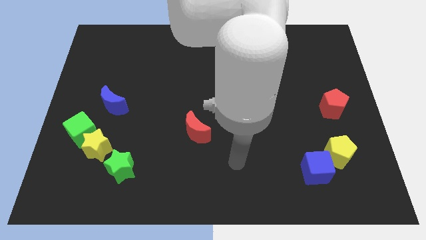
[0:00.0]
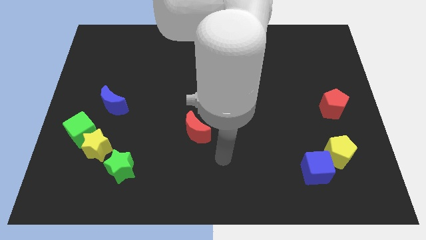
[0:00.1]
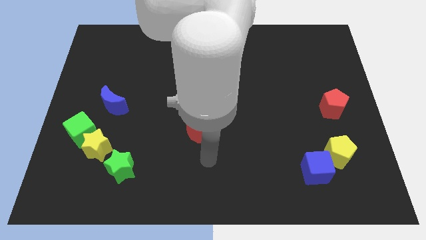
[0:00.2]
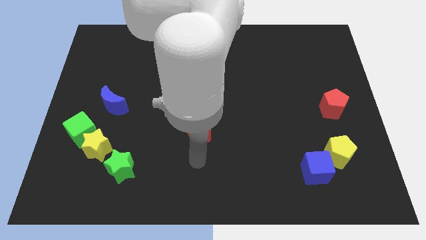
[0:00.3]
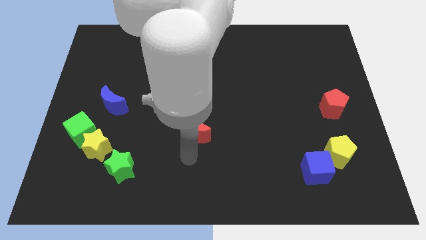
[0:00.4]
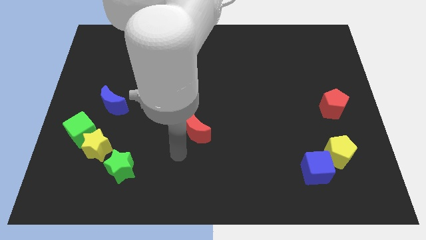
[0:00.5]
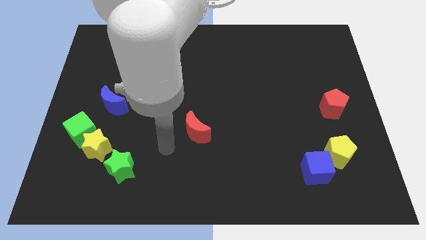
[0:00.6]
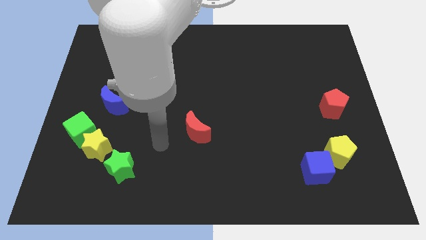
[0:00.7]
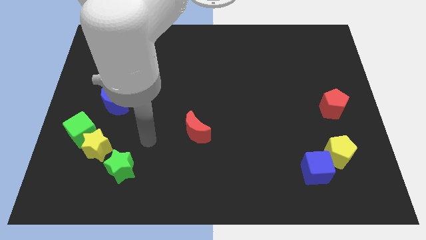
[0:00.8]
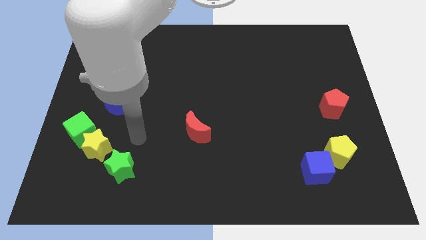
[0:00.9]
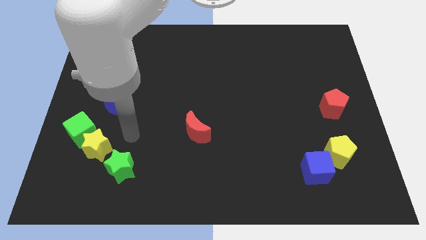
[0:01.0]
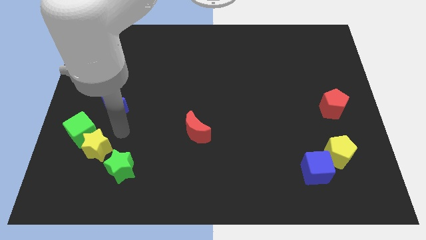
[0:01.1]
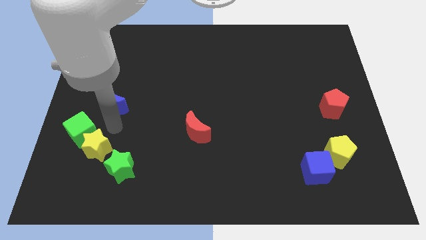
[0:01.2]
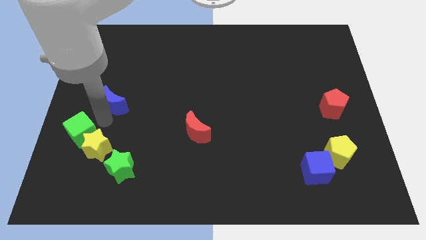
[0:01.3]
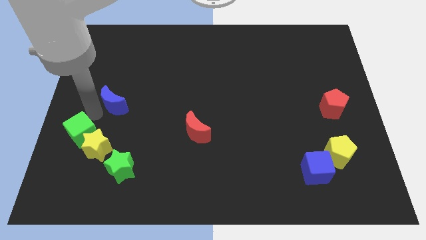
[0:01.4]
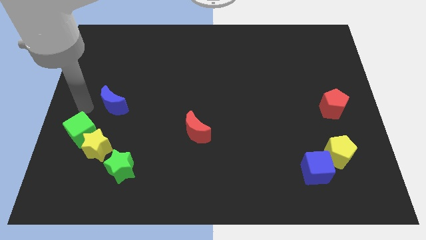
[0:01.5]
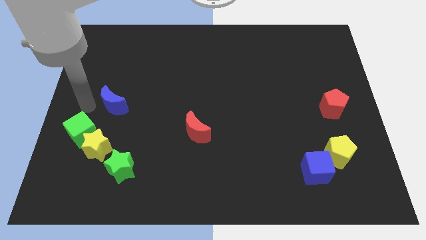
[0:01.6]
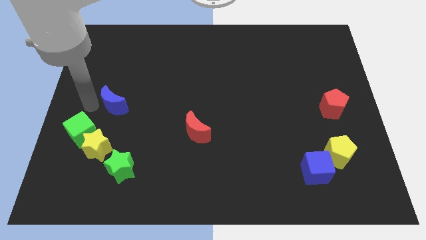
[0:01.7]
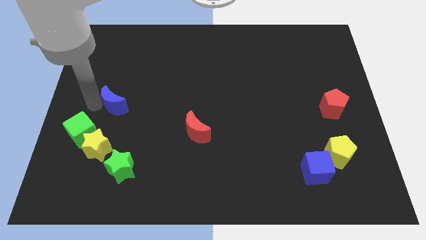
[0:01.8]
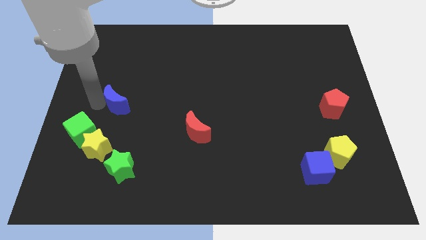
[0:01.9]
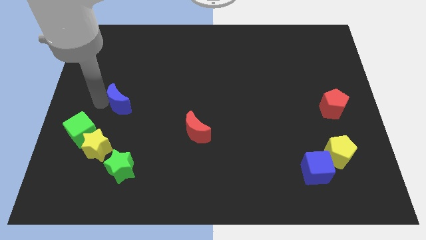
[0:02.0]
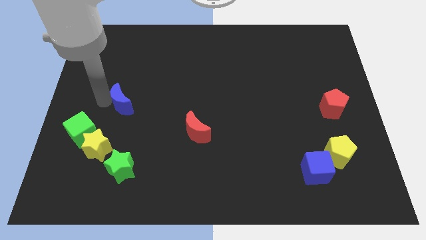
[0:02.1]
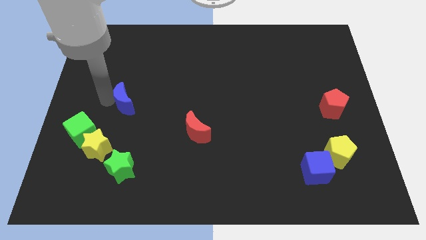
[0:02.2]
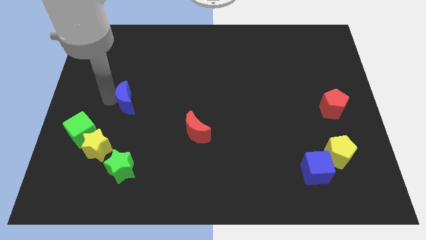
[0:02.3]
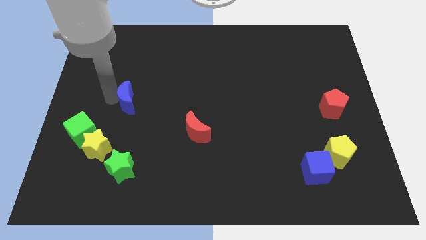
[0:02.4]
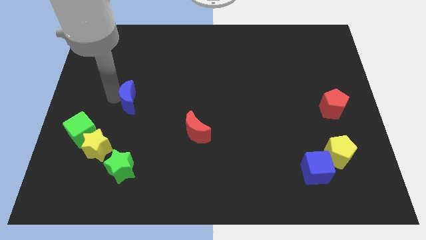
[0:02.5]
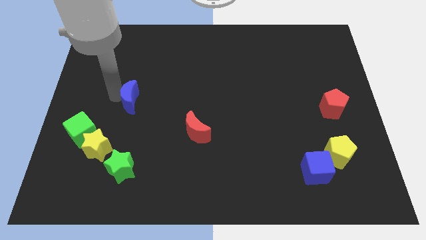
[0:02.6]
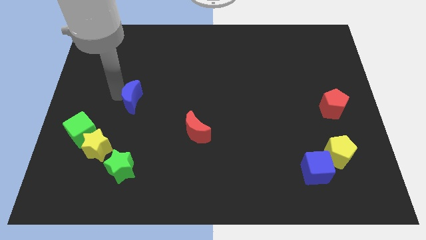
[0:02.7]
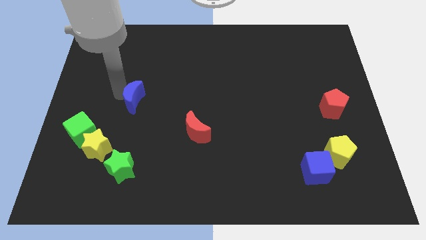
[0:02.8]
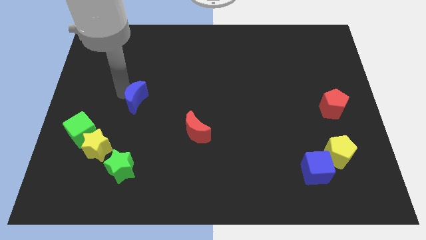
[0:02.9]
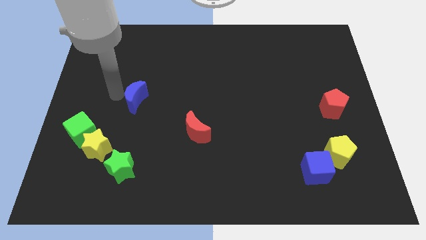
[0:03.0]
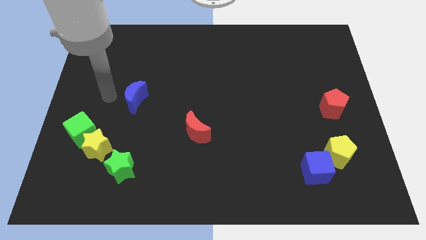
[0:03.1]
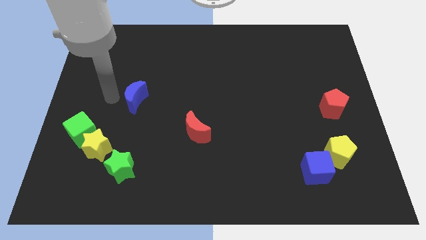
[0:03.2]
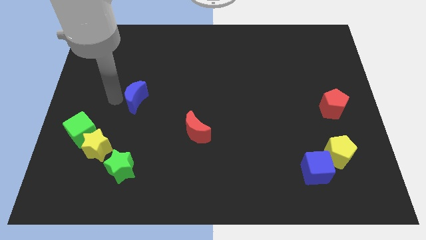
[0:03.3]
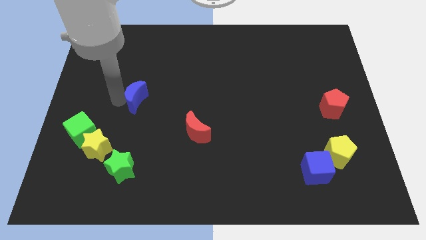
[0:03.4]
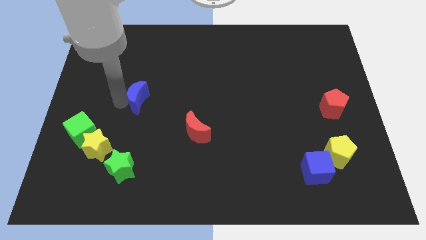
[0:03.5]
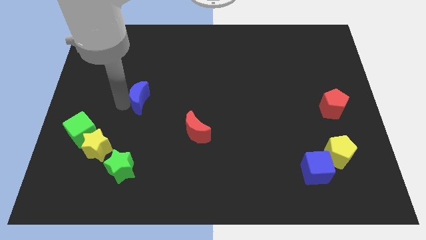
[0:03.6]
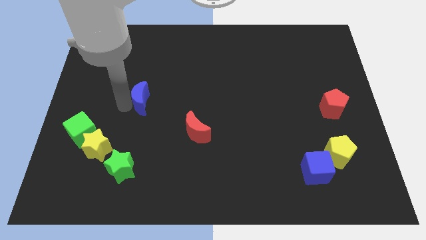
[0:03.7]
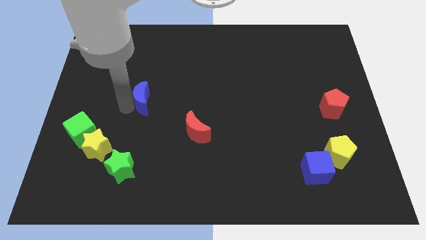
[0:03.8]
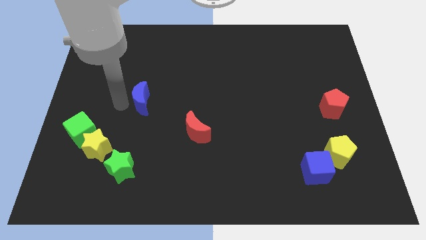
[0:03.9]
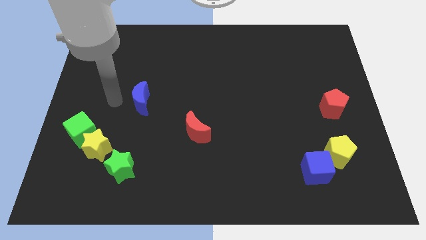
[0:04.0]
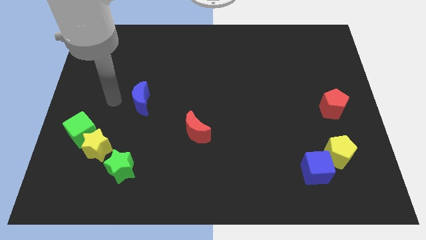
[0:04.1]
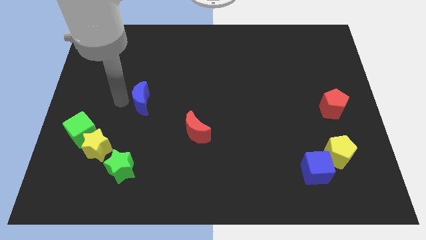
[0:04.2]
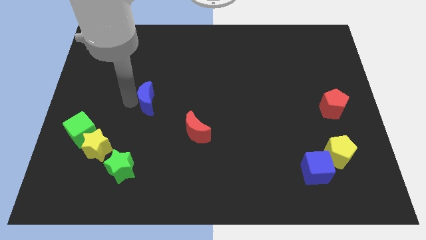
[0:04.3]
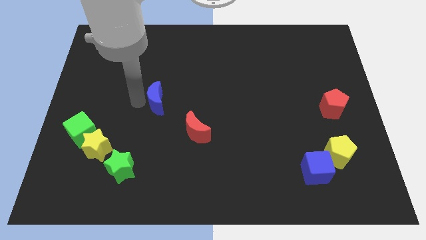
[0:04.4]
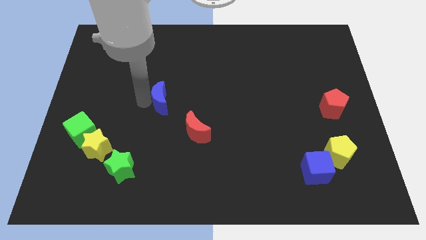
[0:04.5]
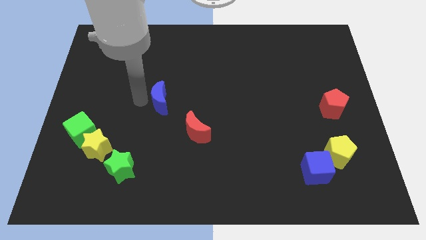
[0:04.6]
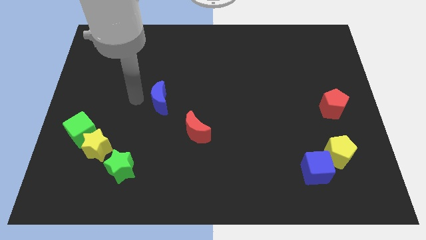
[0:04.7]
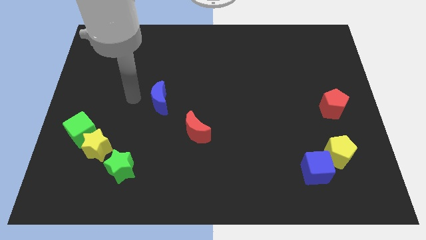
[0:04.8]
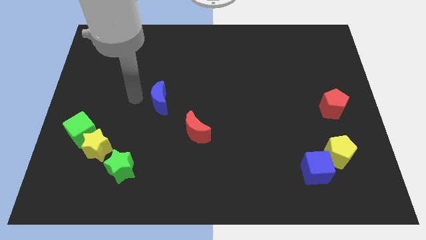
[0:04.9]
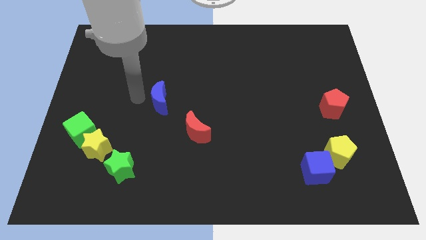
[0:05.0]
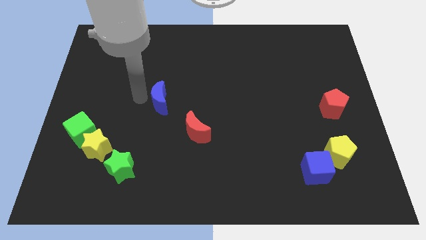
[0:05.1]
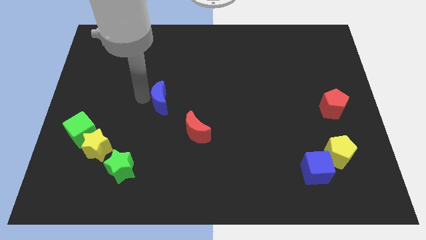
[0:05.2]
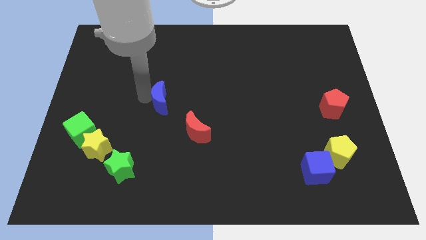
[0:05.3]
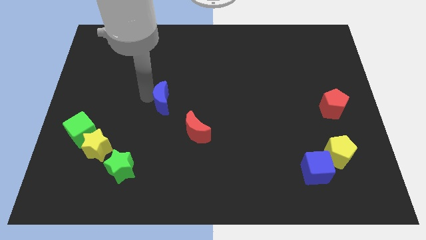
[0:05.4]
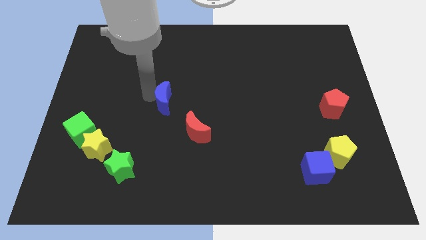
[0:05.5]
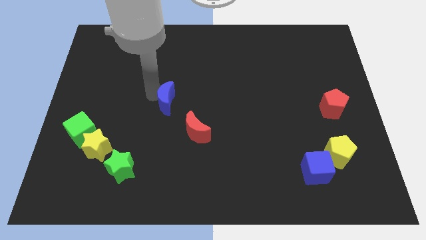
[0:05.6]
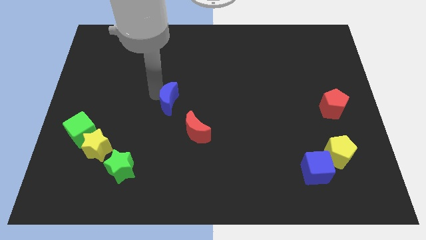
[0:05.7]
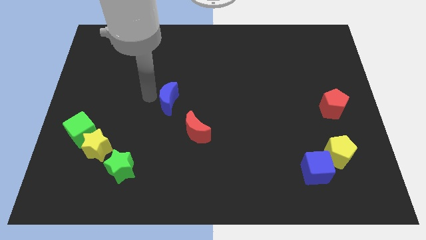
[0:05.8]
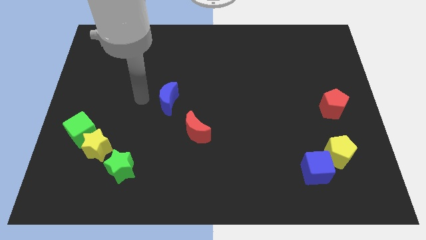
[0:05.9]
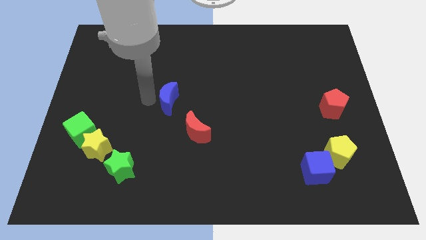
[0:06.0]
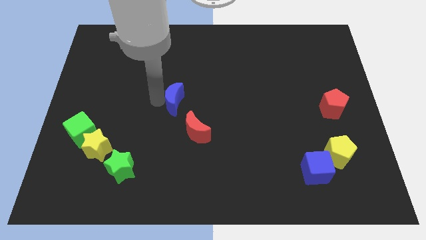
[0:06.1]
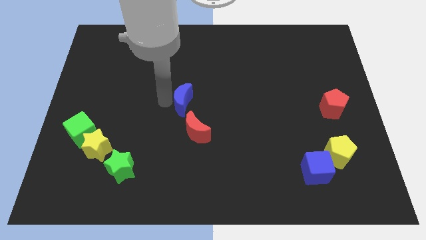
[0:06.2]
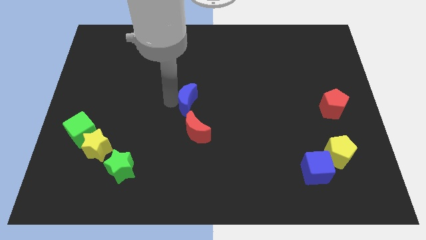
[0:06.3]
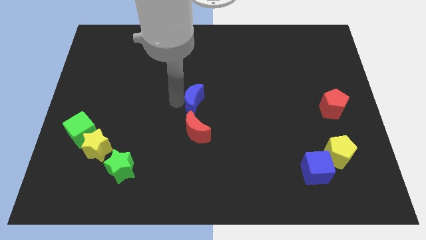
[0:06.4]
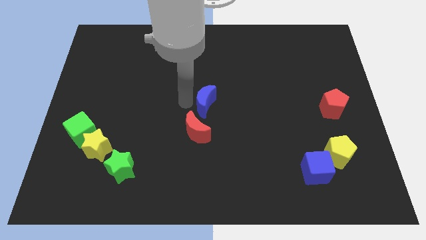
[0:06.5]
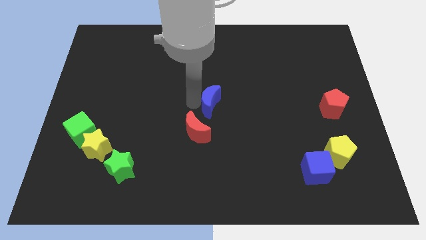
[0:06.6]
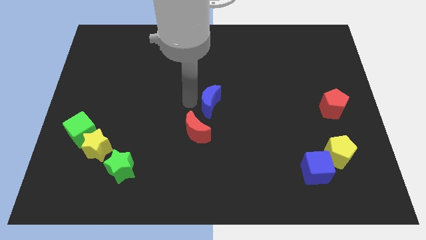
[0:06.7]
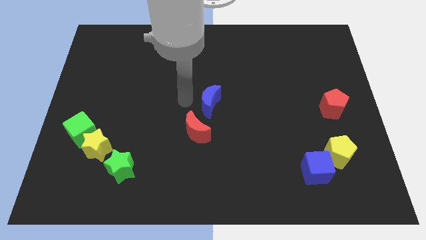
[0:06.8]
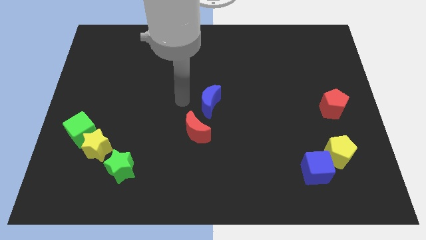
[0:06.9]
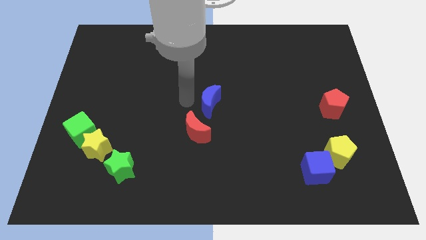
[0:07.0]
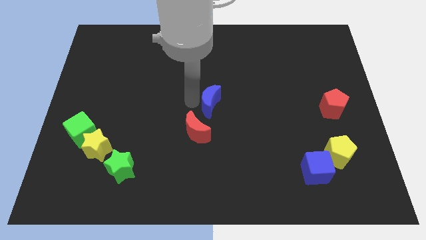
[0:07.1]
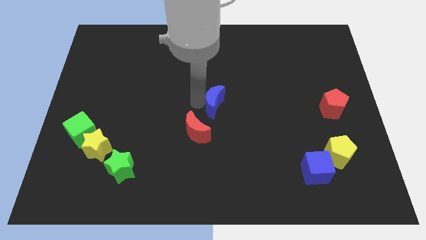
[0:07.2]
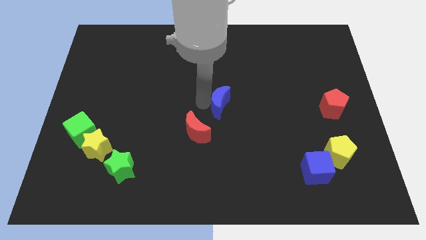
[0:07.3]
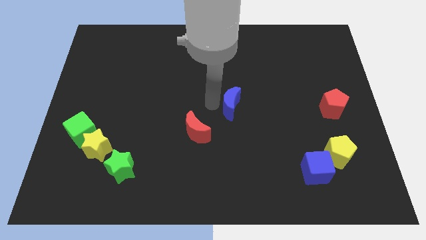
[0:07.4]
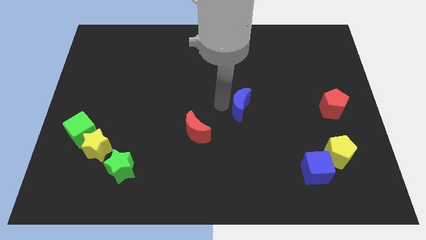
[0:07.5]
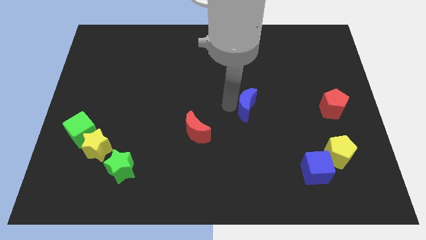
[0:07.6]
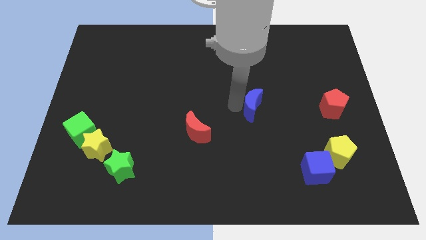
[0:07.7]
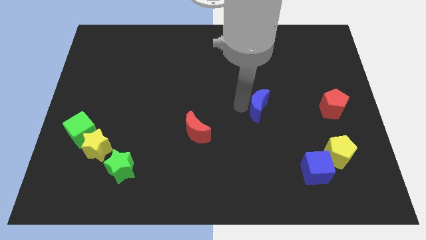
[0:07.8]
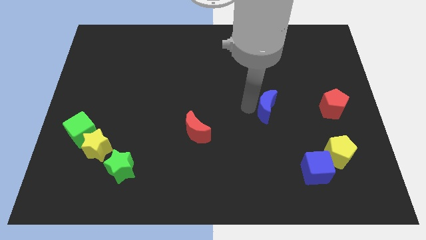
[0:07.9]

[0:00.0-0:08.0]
put the blue moon just left of the red pentagon
